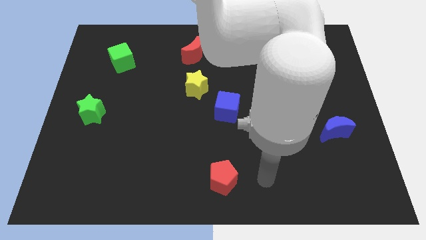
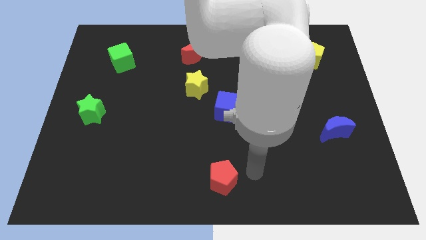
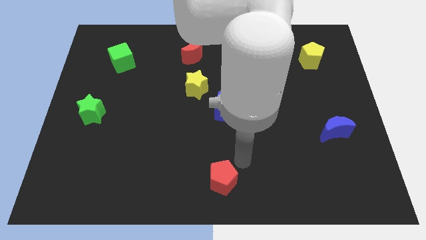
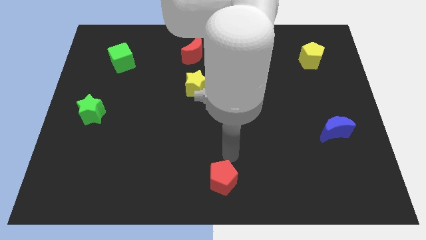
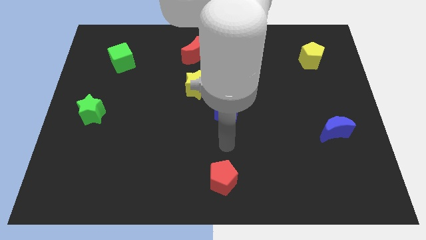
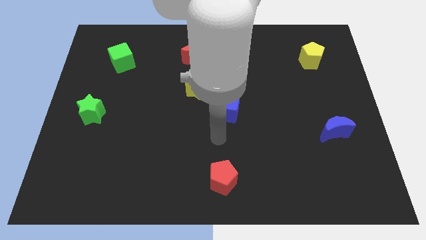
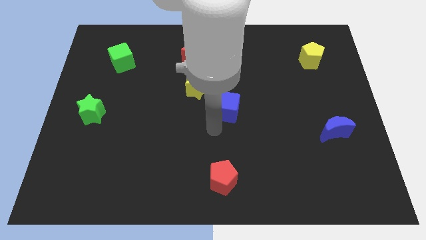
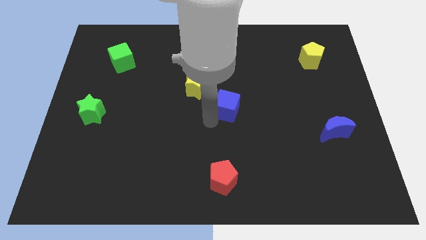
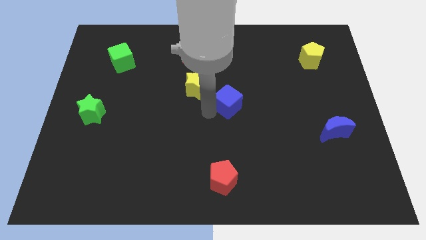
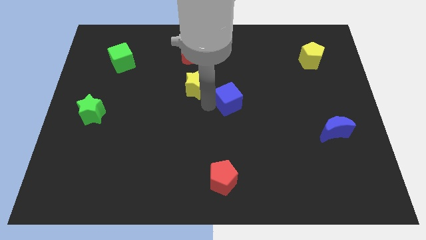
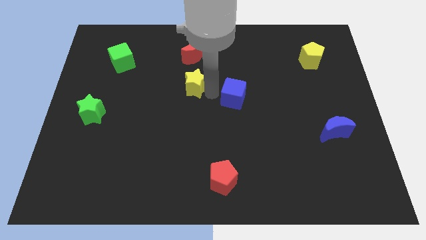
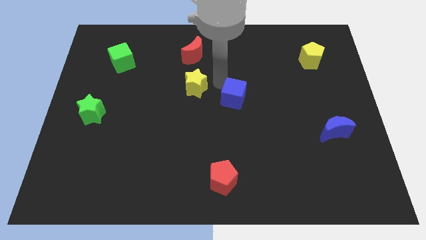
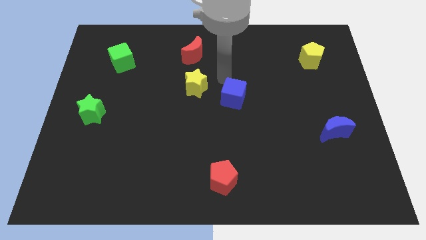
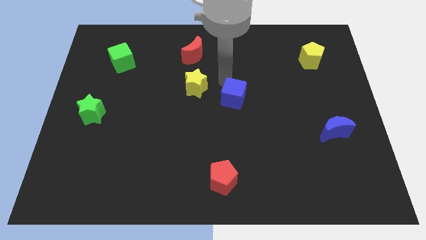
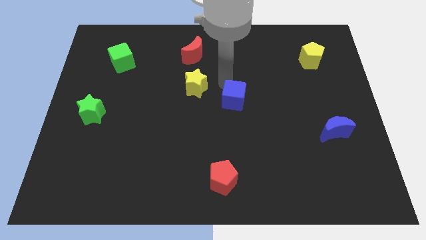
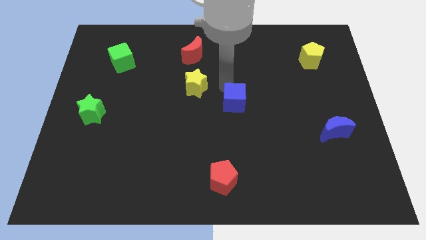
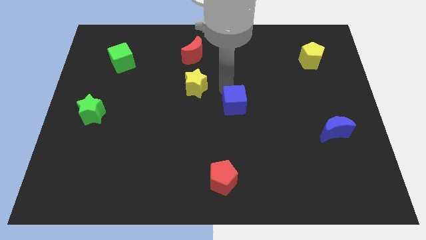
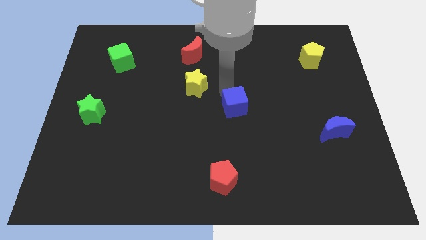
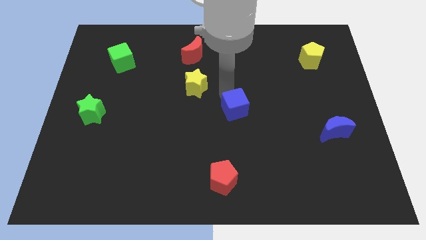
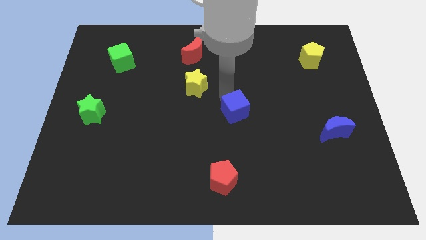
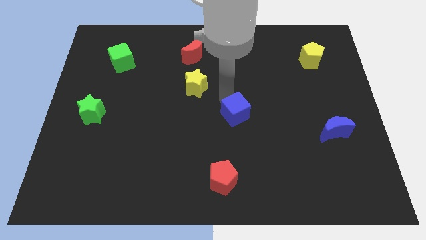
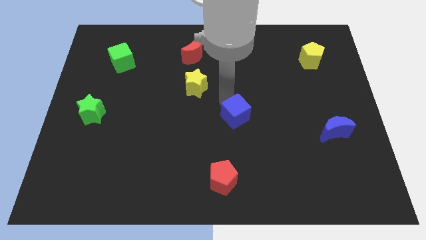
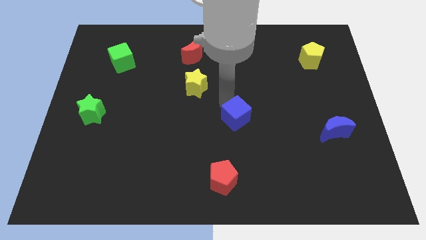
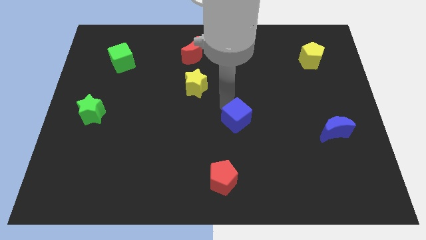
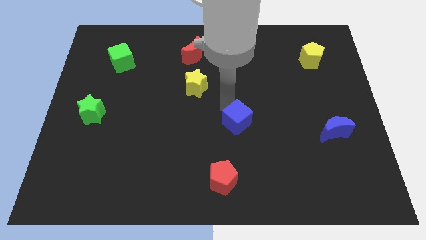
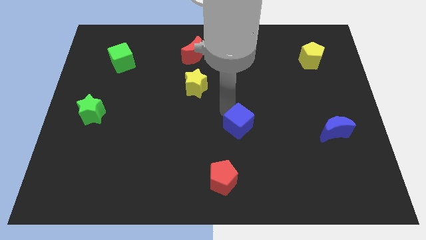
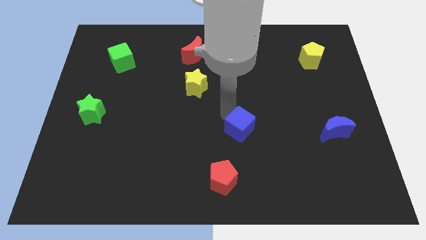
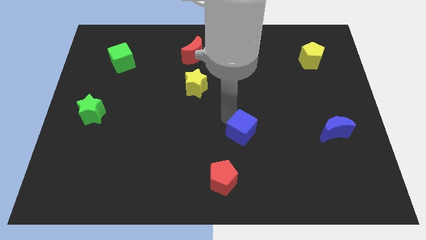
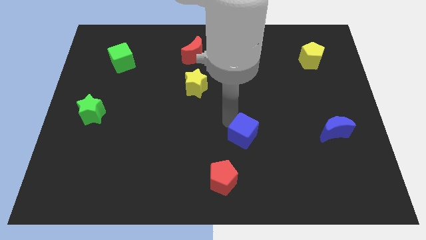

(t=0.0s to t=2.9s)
slightly move the blue cube downwards and right diagonally

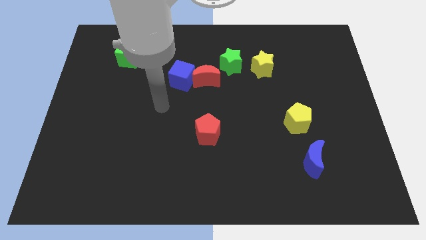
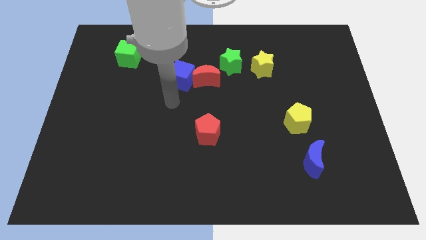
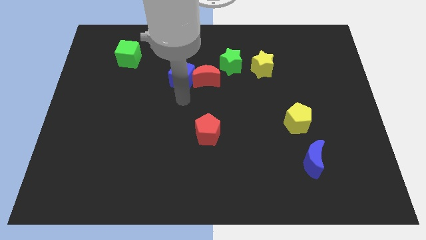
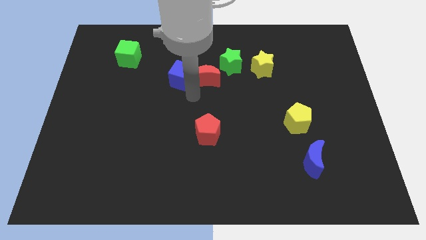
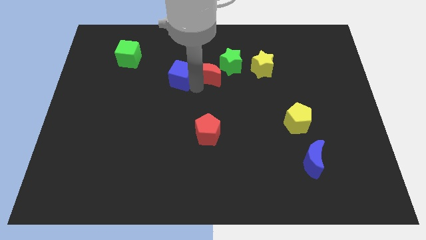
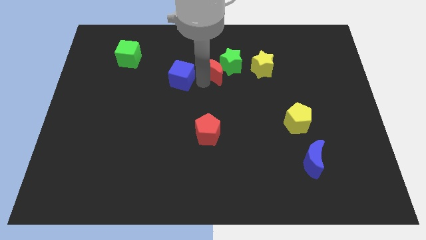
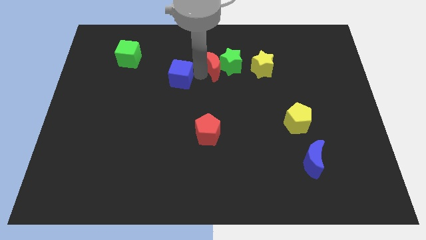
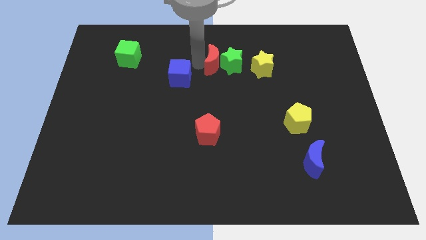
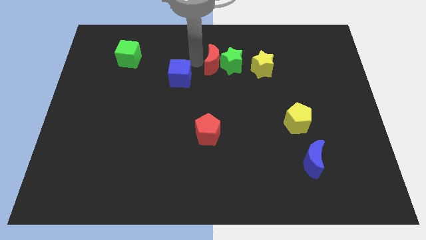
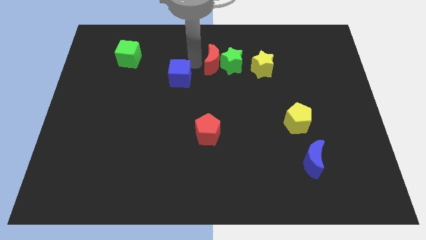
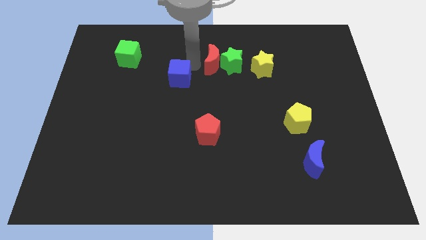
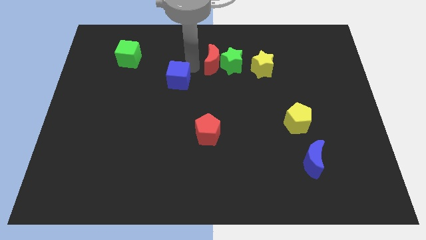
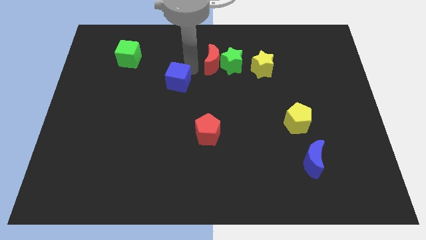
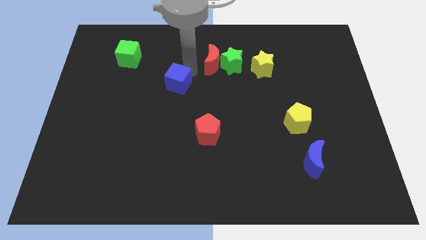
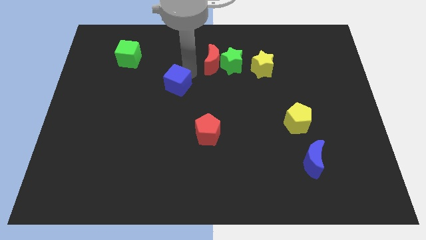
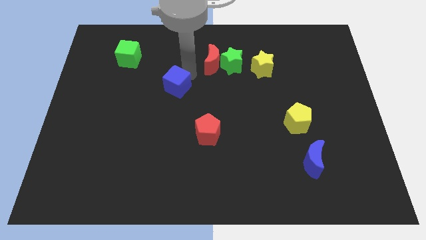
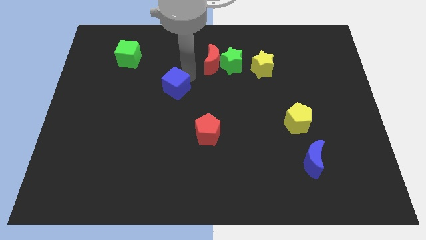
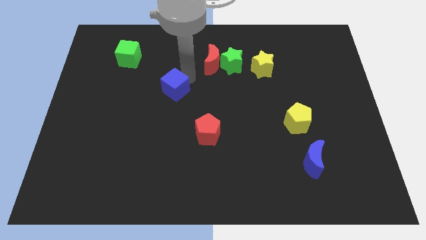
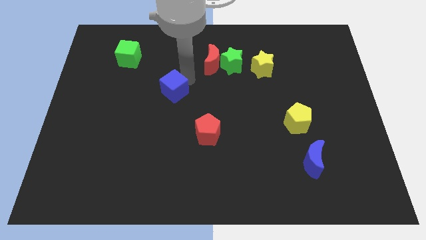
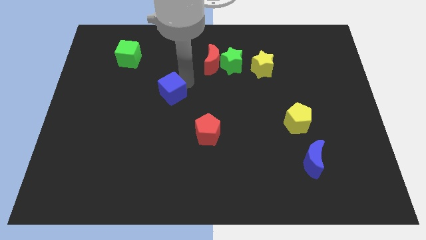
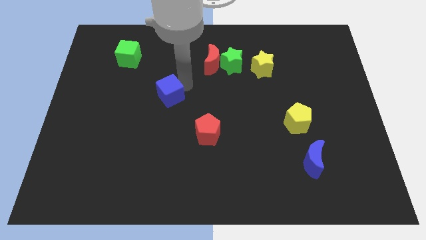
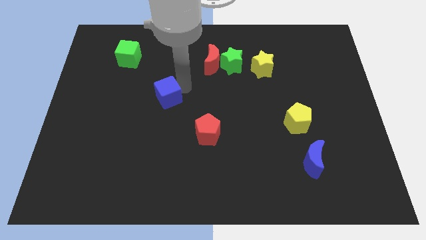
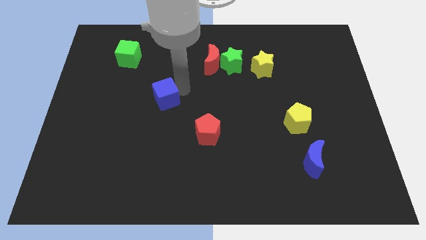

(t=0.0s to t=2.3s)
move the blue cube slightly downwards and then left

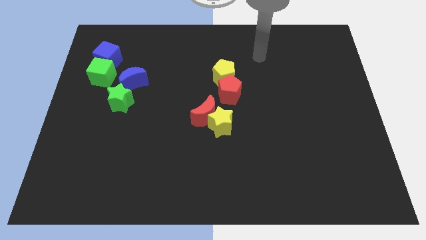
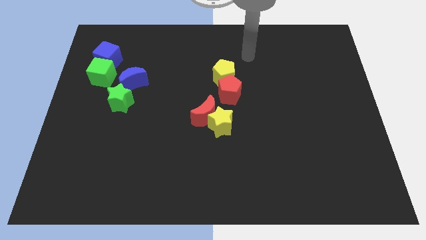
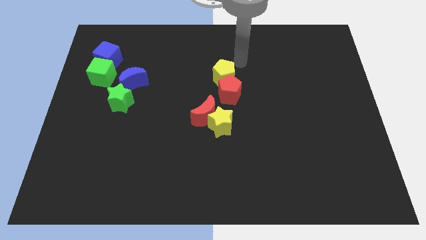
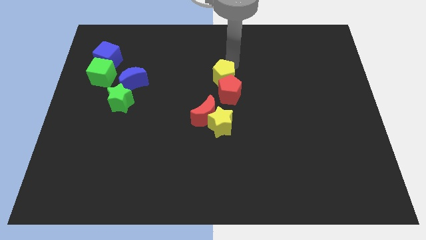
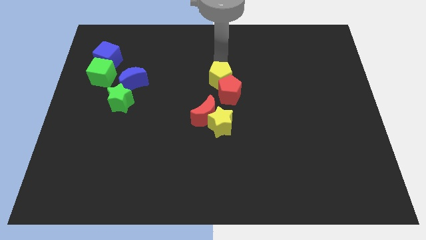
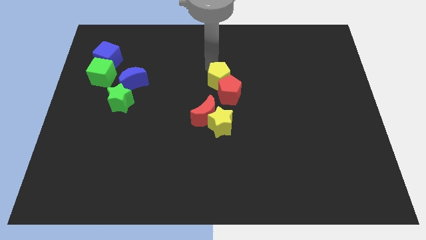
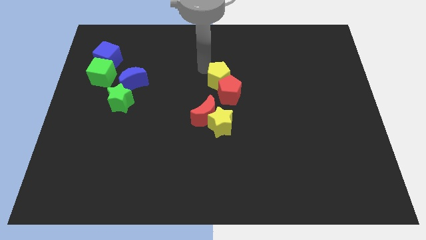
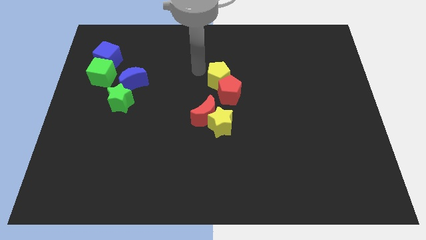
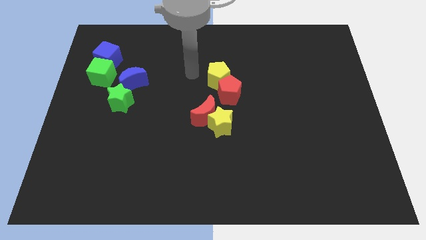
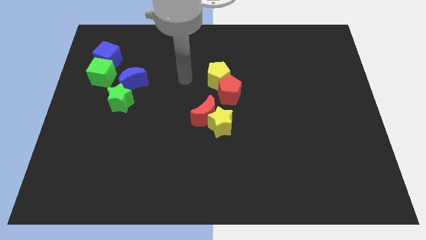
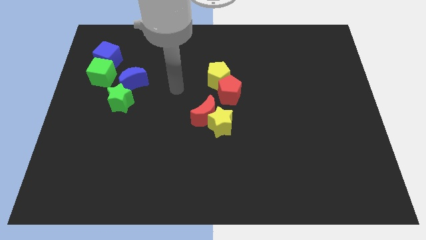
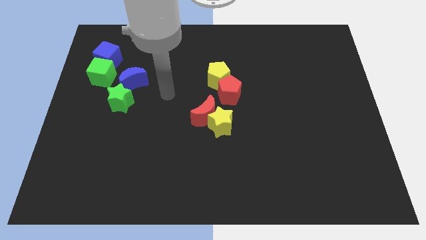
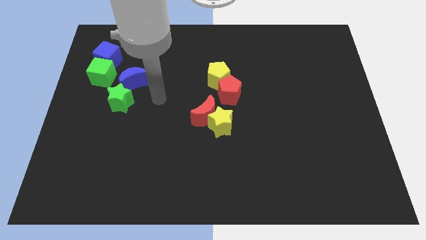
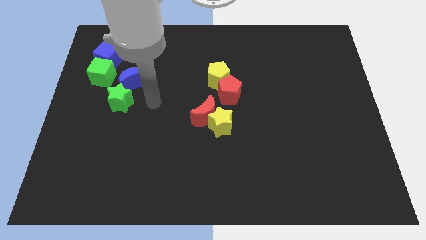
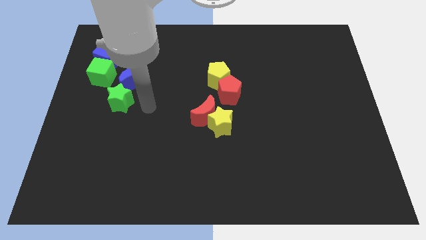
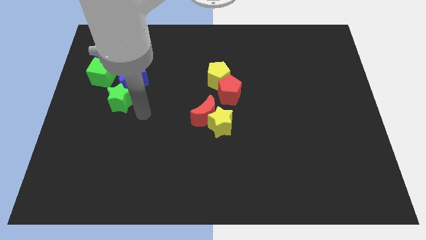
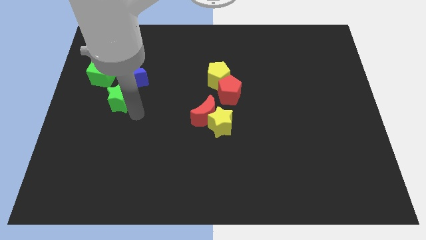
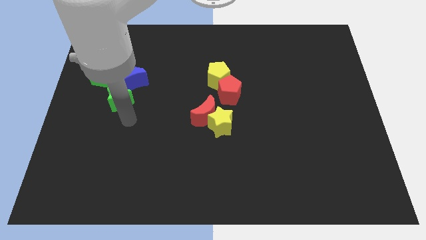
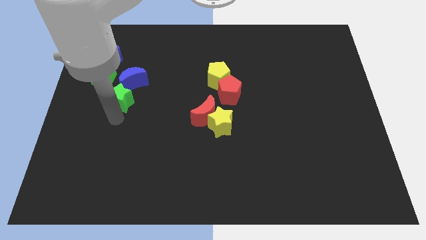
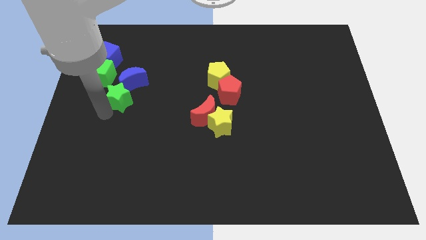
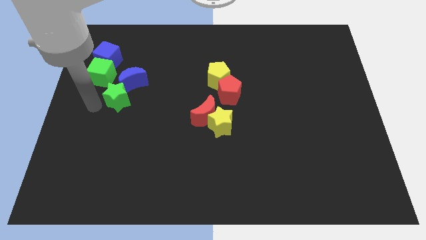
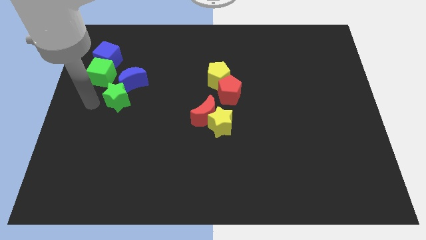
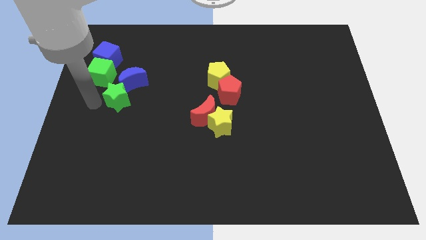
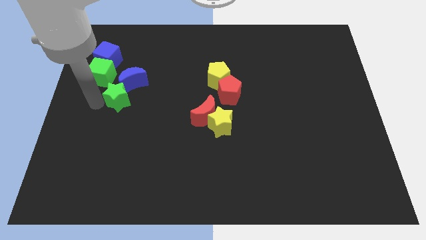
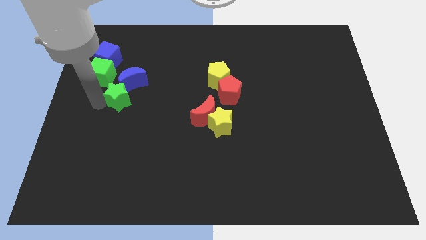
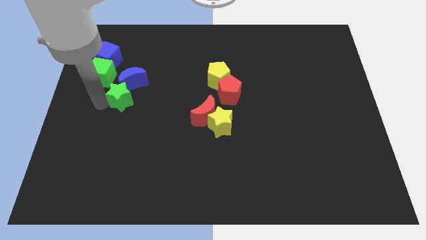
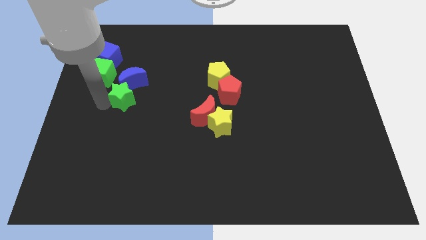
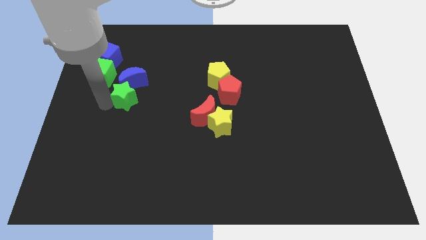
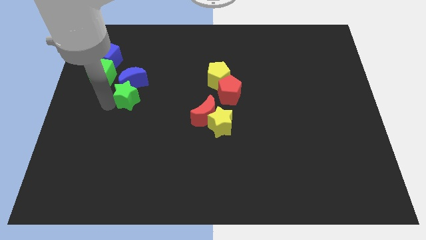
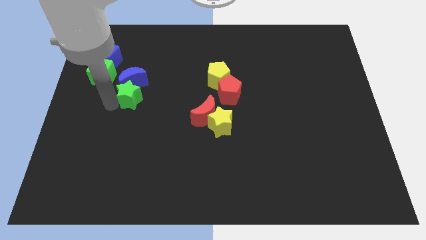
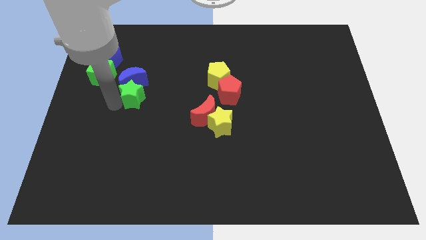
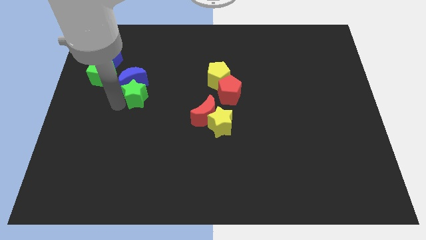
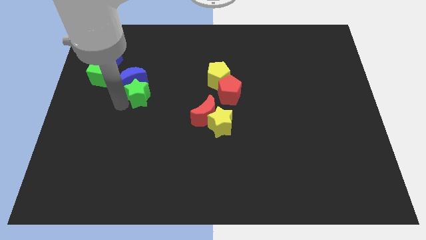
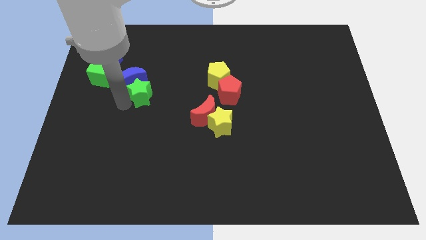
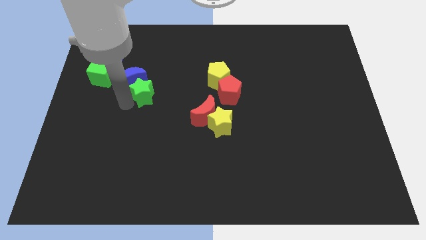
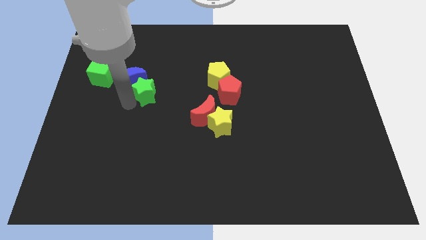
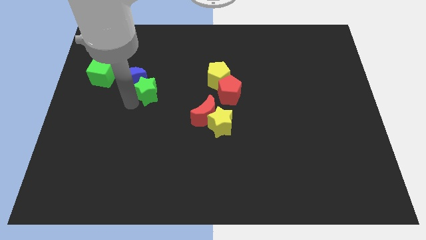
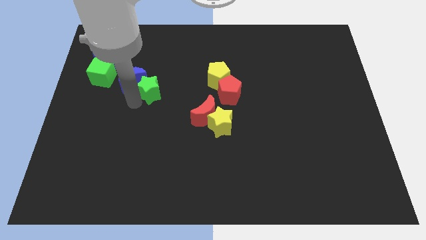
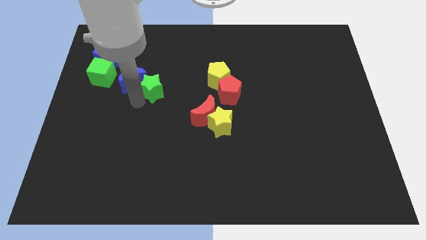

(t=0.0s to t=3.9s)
slide the green star somewhat up and right
